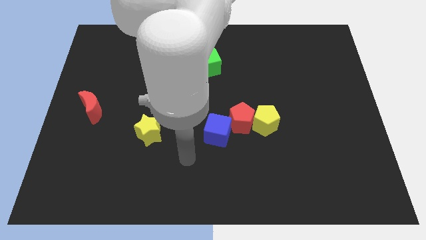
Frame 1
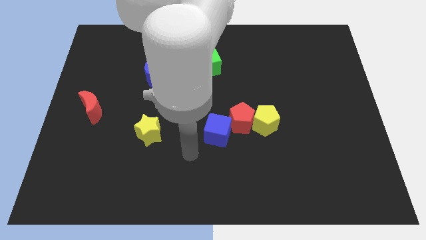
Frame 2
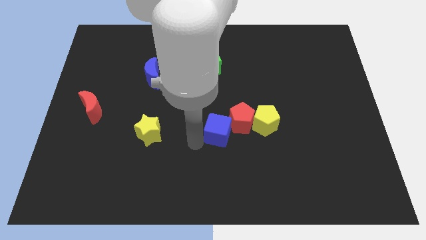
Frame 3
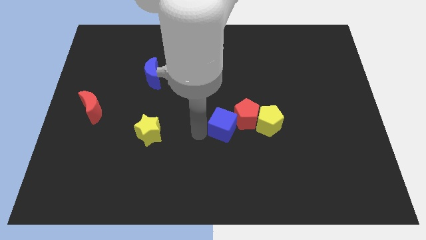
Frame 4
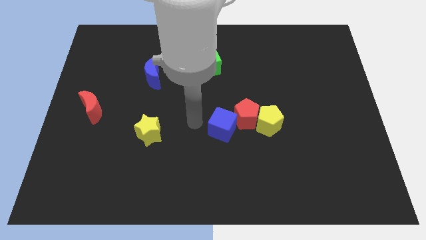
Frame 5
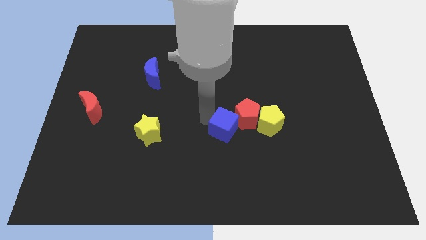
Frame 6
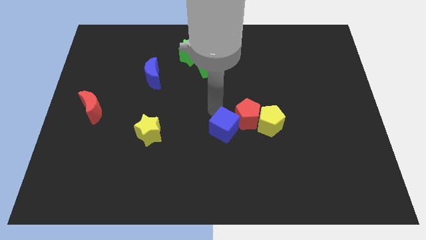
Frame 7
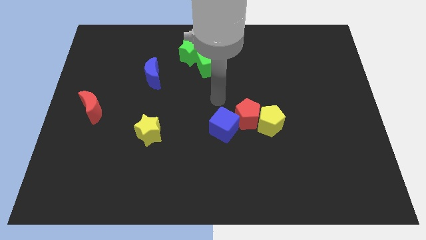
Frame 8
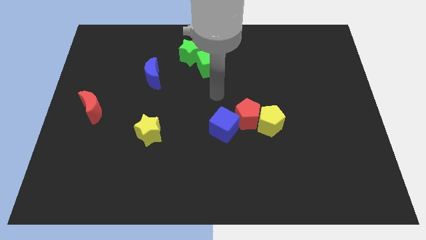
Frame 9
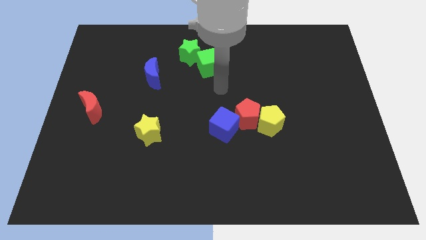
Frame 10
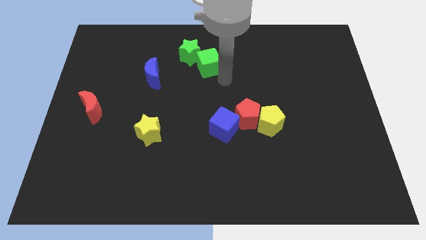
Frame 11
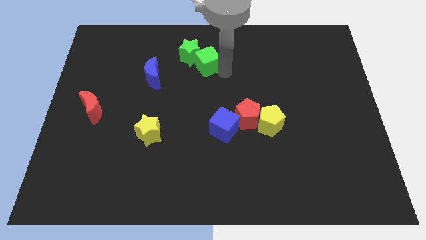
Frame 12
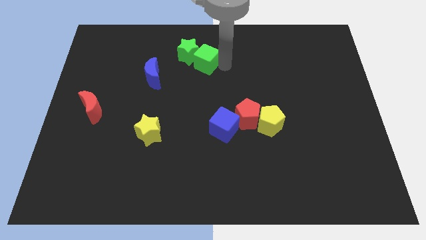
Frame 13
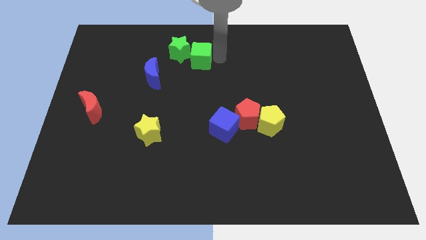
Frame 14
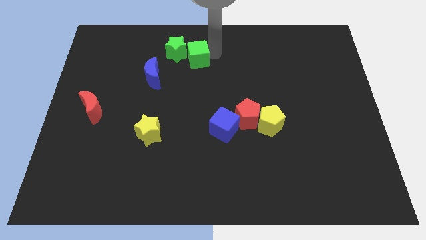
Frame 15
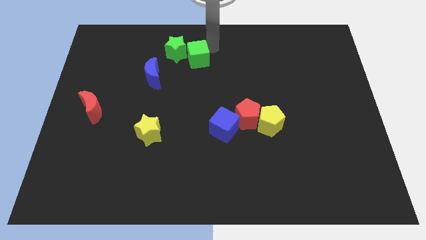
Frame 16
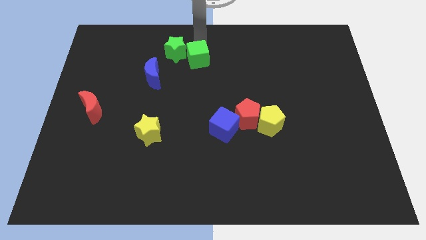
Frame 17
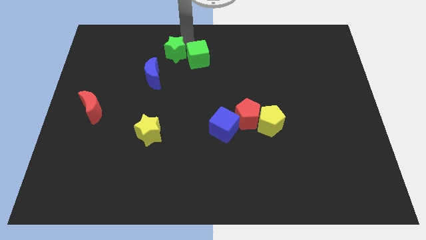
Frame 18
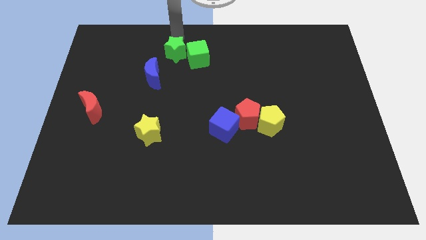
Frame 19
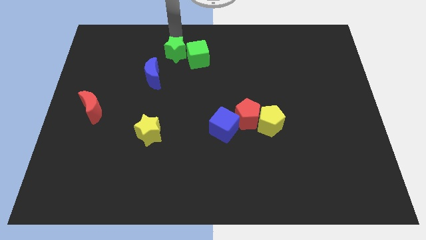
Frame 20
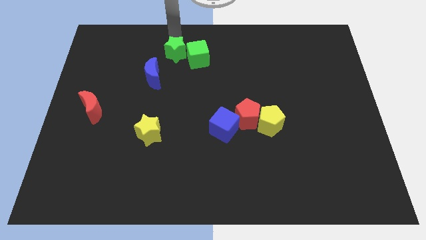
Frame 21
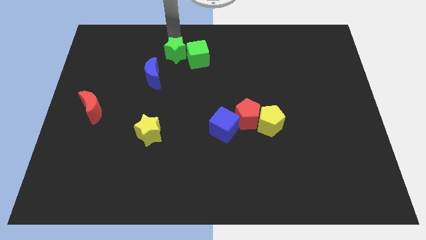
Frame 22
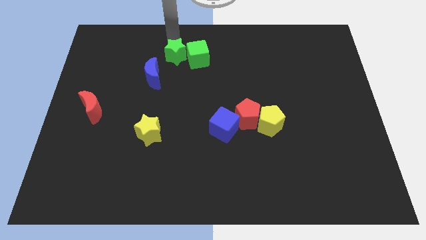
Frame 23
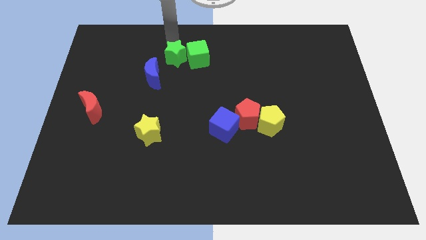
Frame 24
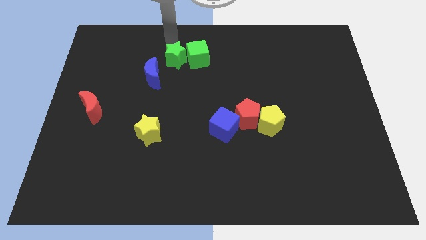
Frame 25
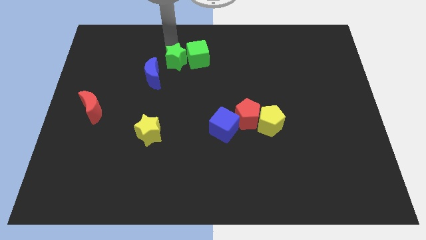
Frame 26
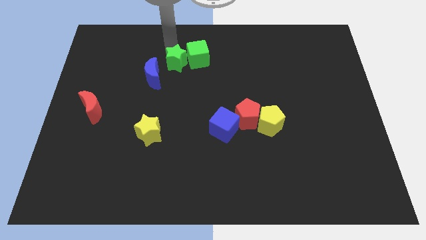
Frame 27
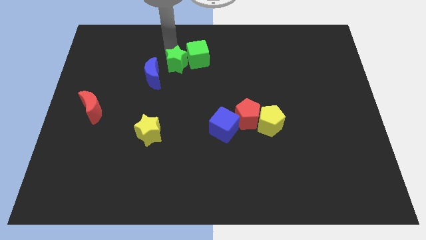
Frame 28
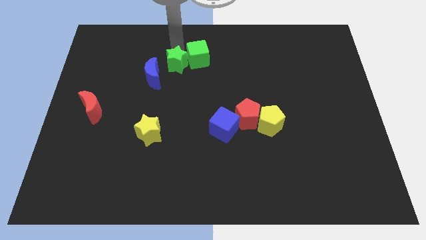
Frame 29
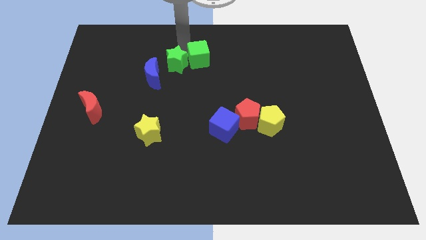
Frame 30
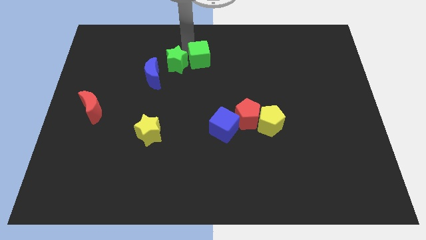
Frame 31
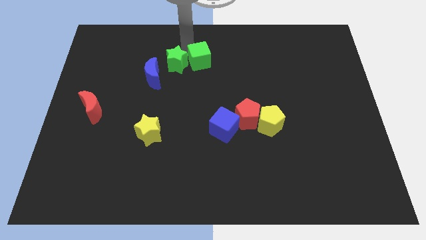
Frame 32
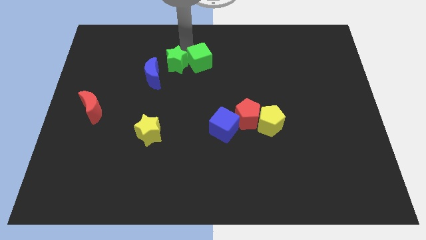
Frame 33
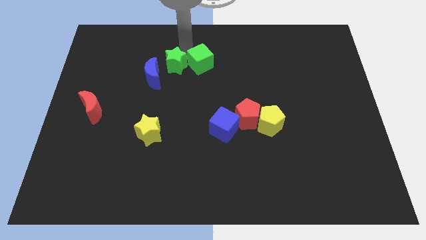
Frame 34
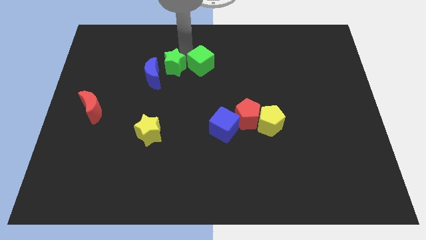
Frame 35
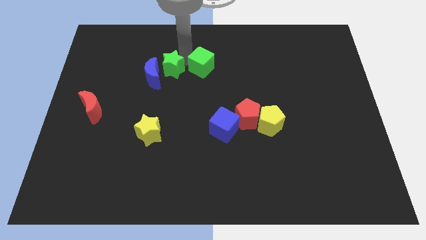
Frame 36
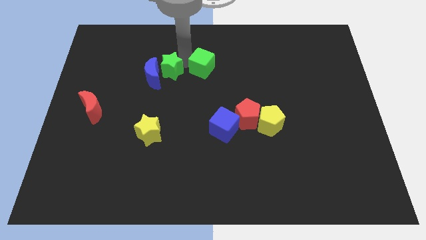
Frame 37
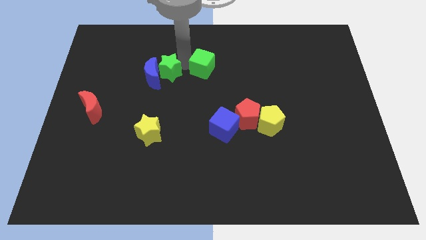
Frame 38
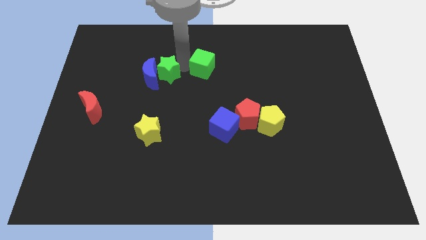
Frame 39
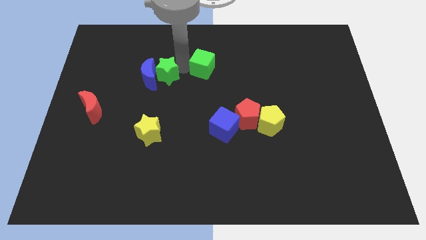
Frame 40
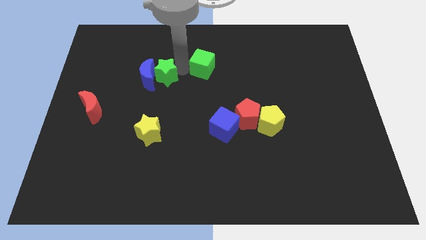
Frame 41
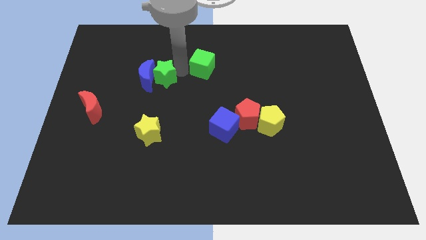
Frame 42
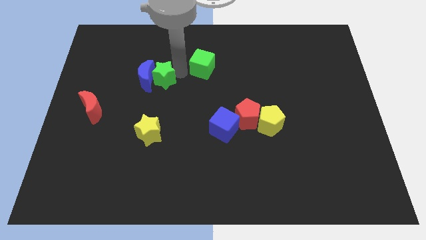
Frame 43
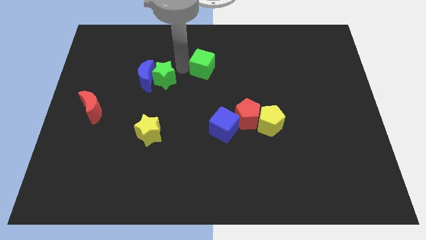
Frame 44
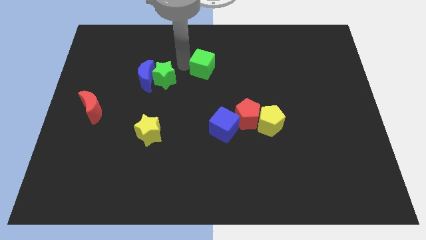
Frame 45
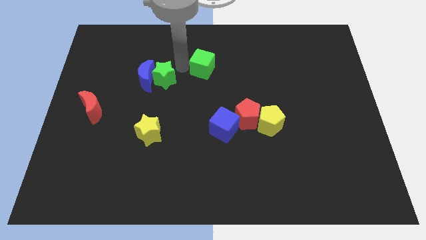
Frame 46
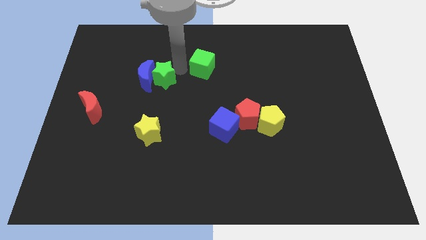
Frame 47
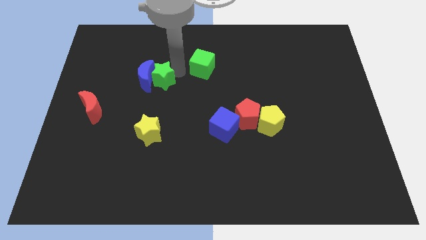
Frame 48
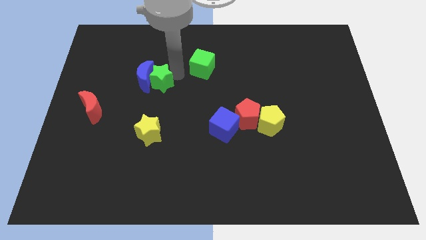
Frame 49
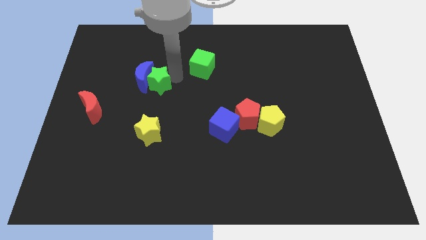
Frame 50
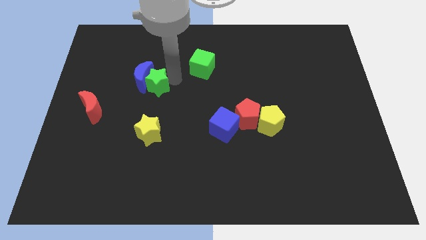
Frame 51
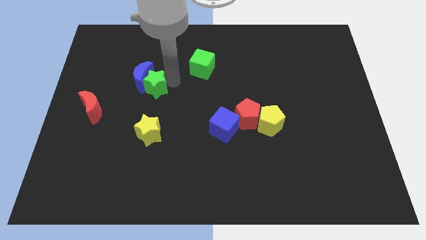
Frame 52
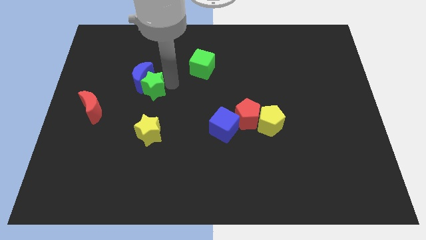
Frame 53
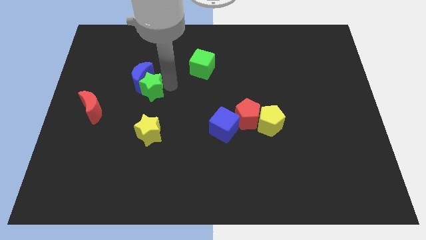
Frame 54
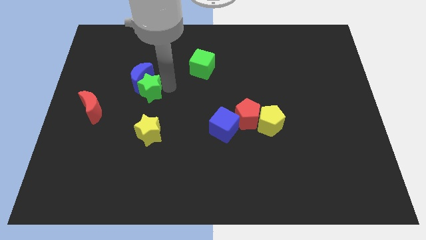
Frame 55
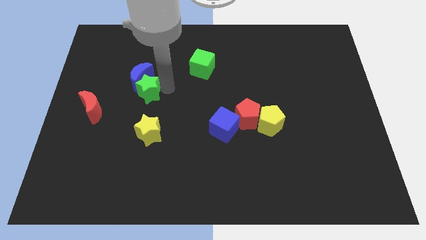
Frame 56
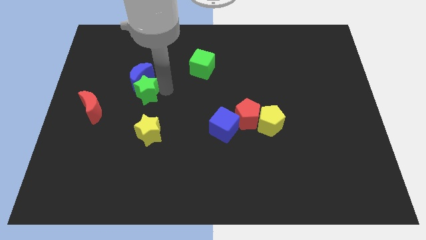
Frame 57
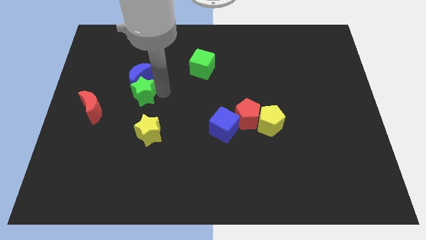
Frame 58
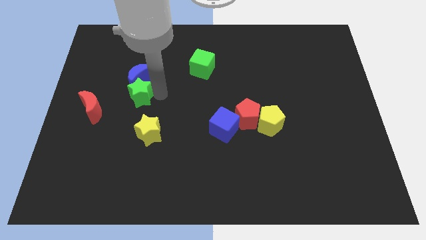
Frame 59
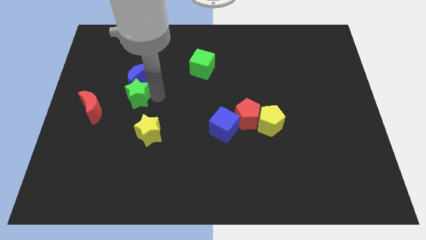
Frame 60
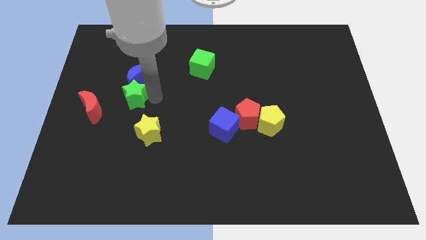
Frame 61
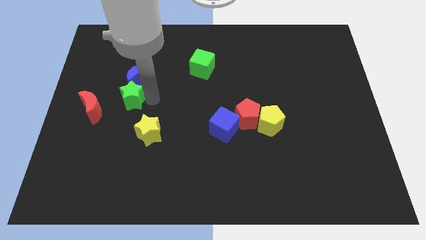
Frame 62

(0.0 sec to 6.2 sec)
slide the green star downwards and to the left diagonally

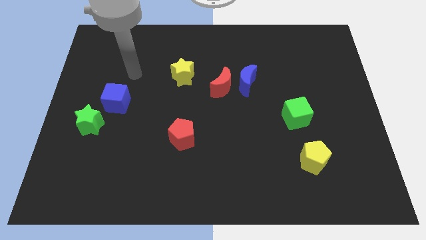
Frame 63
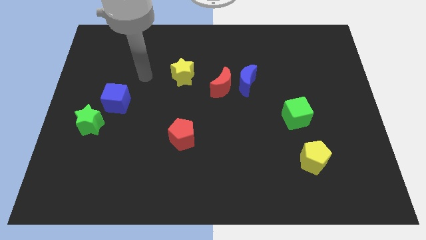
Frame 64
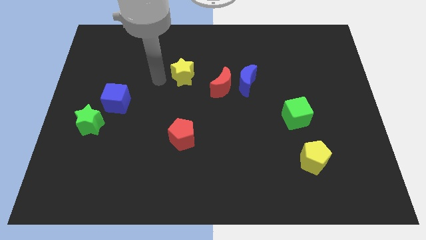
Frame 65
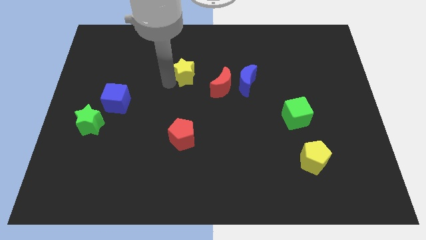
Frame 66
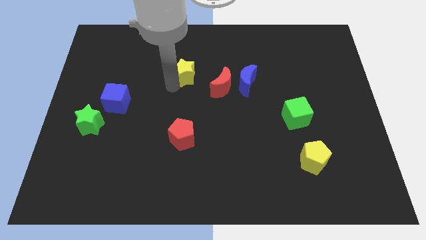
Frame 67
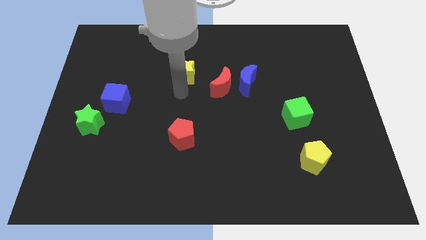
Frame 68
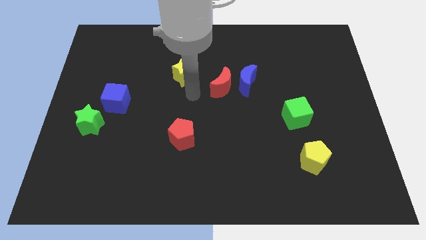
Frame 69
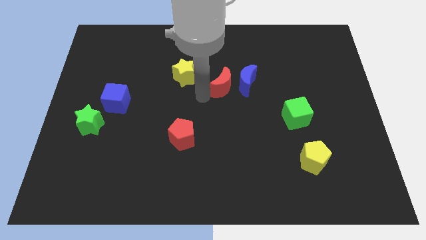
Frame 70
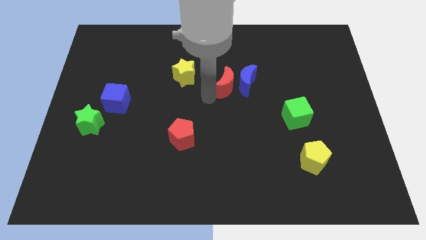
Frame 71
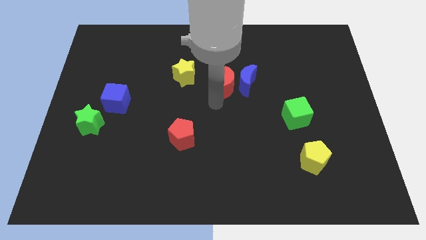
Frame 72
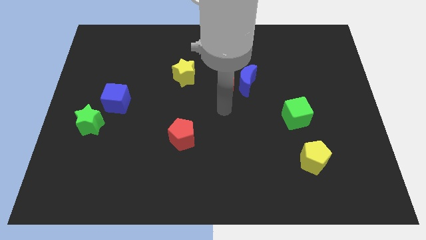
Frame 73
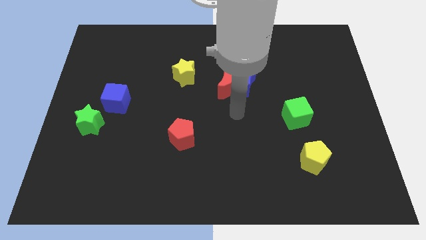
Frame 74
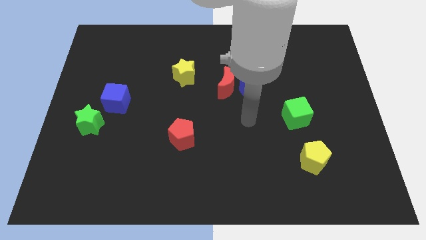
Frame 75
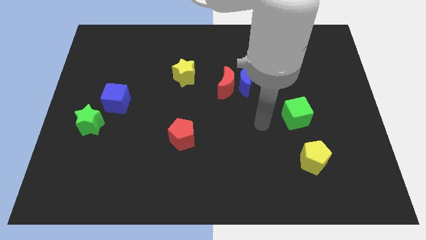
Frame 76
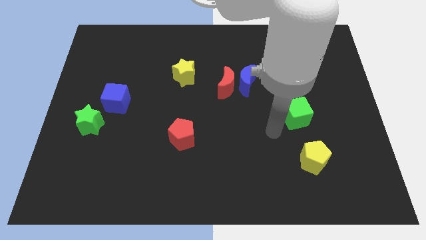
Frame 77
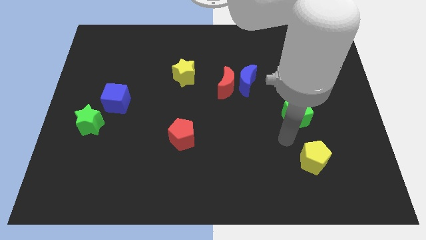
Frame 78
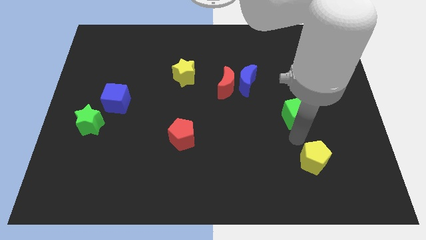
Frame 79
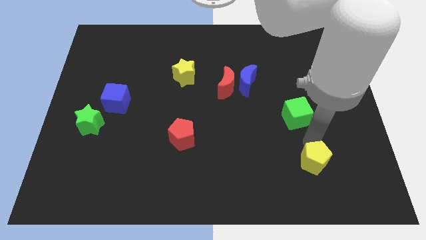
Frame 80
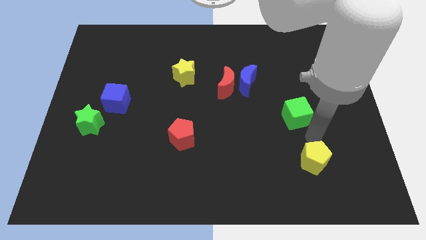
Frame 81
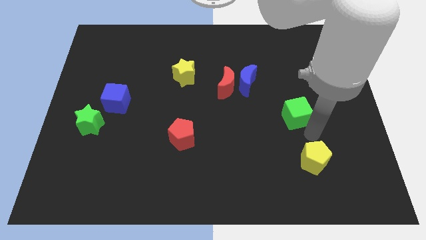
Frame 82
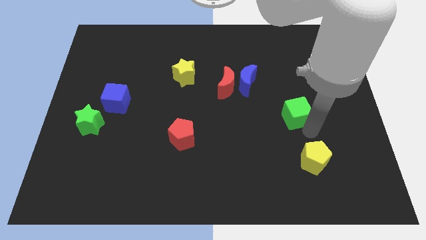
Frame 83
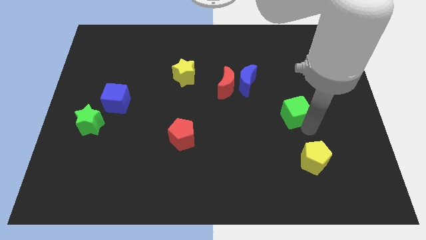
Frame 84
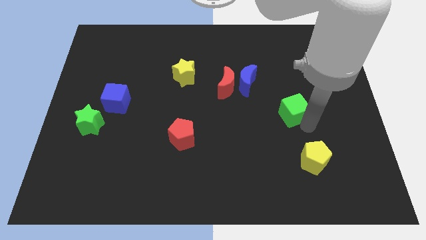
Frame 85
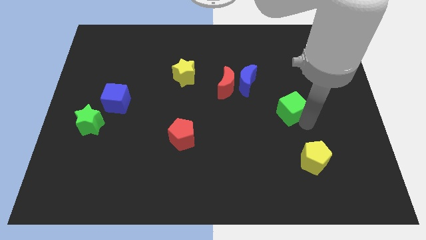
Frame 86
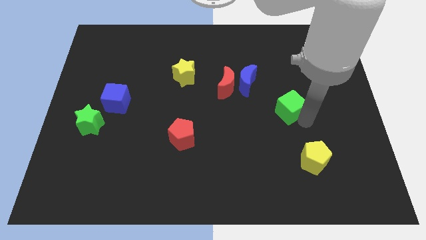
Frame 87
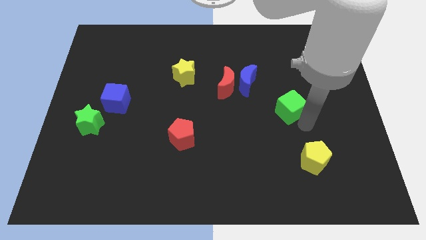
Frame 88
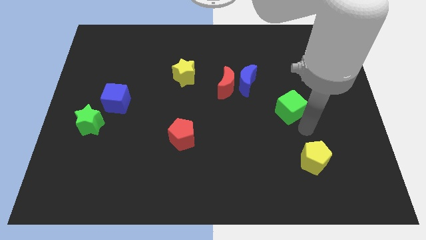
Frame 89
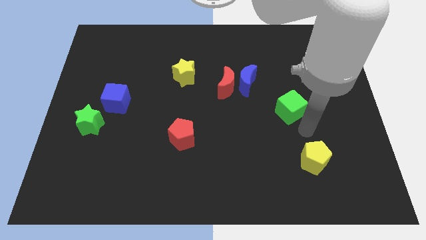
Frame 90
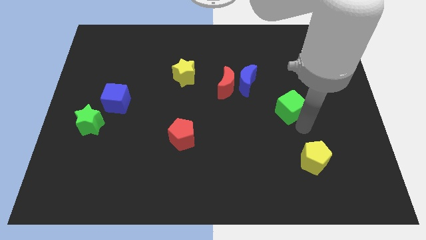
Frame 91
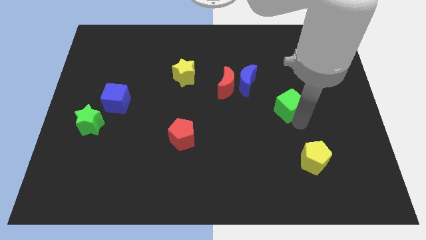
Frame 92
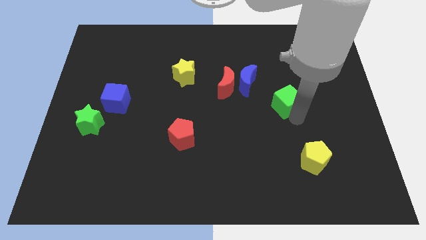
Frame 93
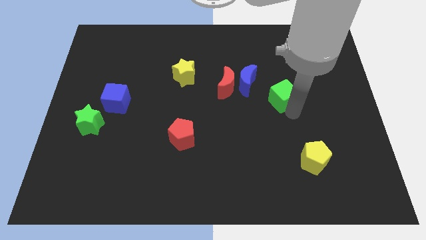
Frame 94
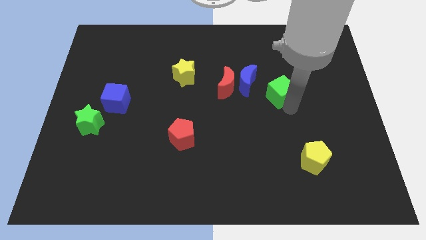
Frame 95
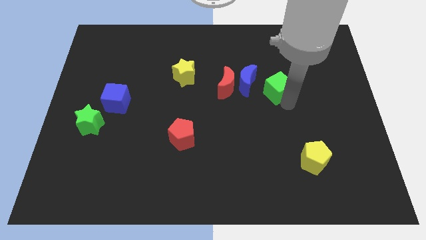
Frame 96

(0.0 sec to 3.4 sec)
slightly slide the green cube diagonally upwards and left
